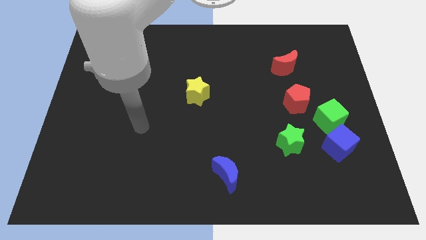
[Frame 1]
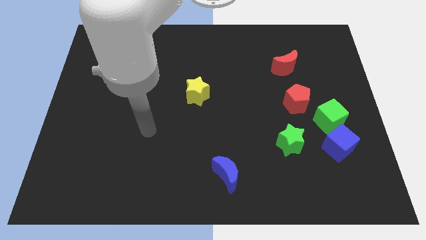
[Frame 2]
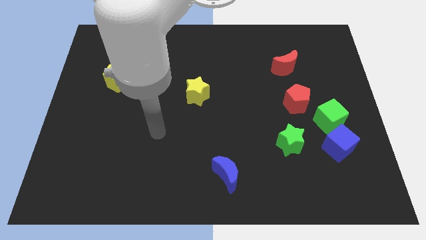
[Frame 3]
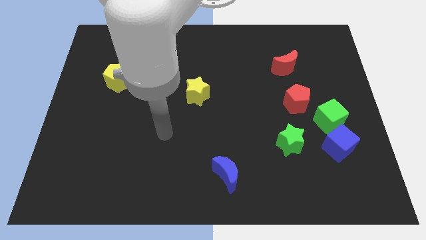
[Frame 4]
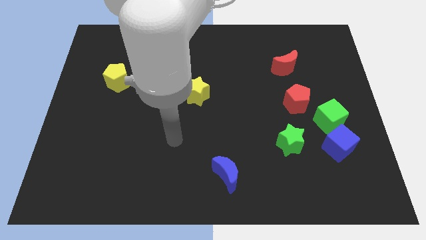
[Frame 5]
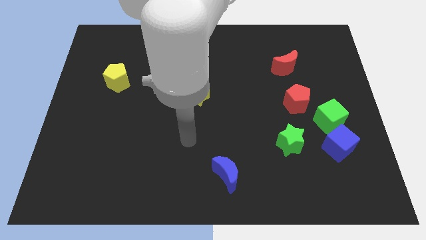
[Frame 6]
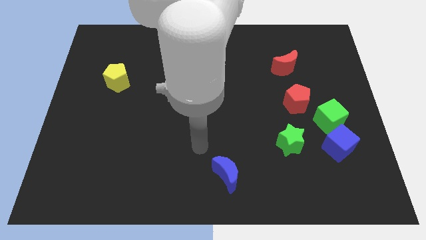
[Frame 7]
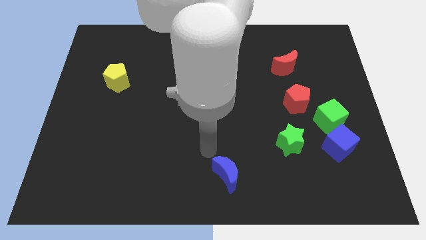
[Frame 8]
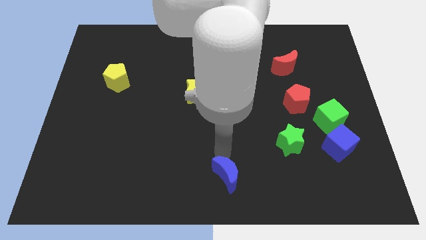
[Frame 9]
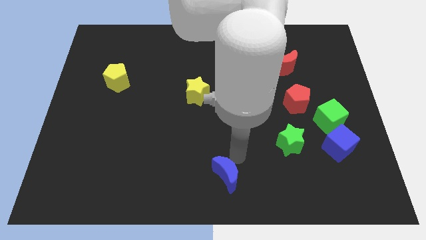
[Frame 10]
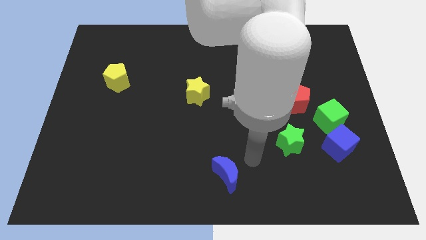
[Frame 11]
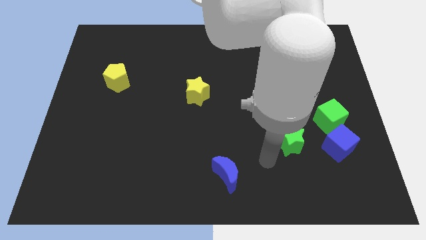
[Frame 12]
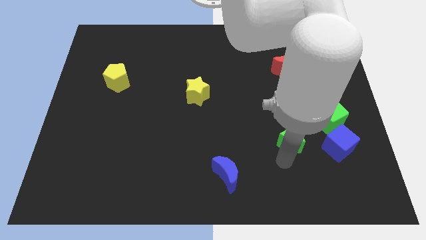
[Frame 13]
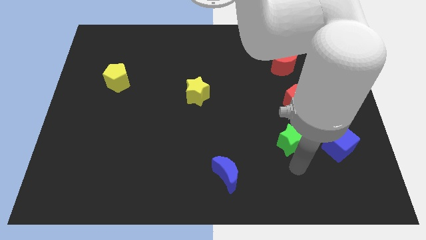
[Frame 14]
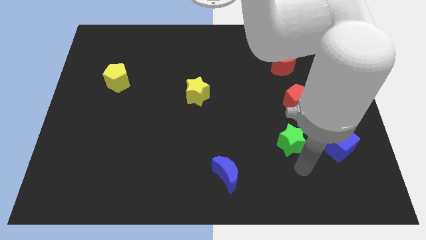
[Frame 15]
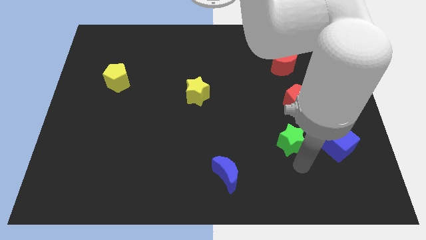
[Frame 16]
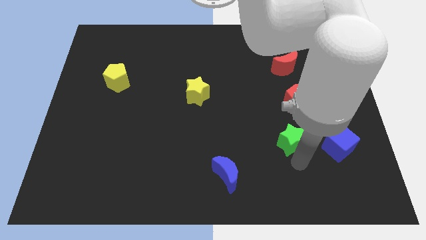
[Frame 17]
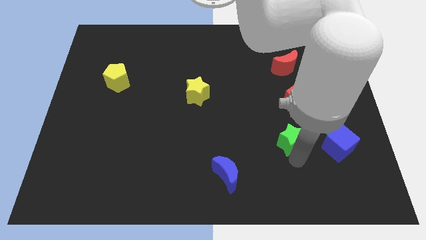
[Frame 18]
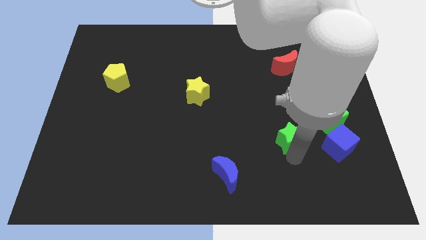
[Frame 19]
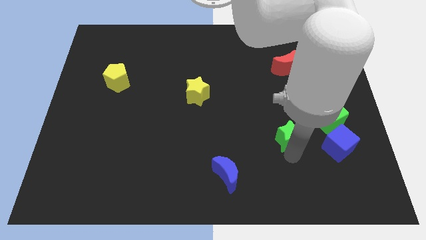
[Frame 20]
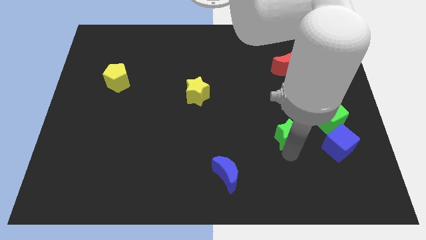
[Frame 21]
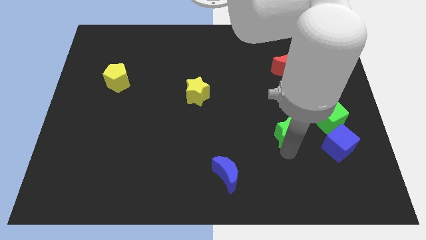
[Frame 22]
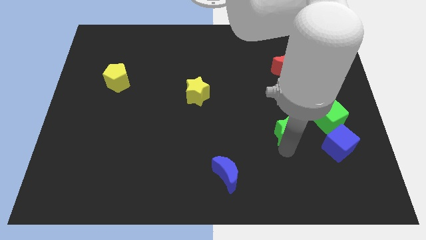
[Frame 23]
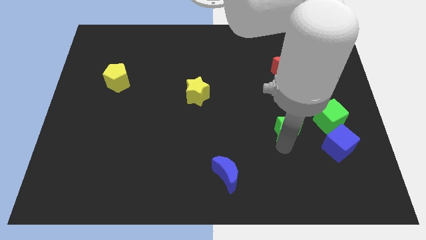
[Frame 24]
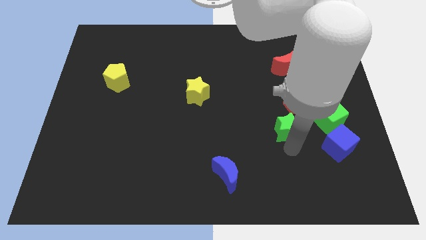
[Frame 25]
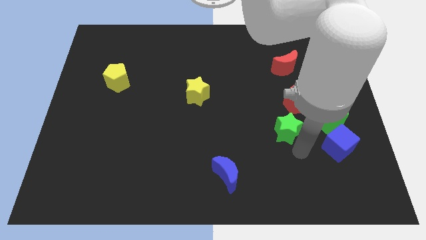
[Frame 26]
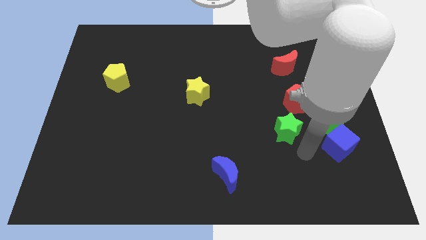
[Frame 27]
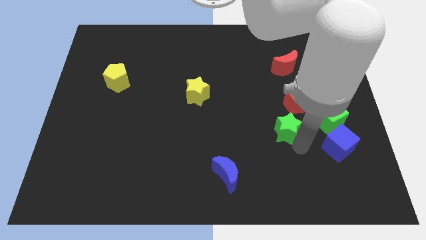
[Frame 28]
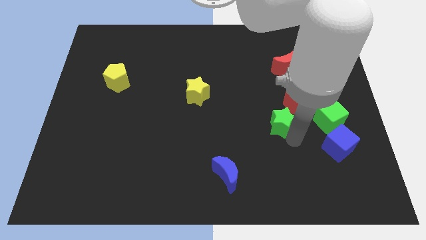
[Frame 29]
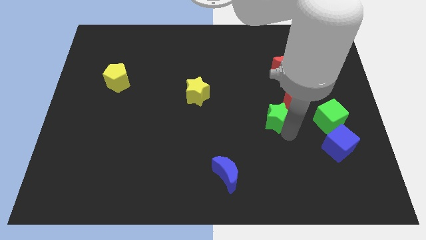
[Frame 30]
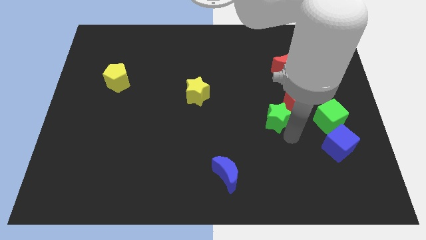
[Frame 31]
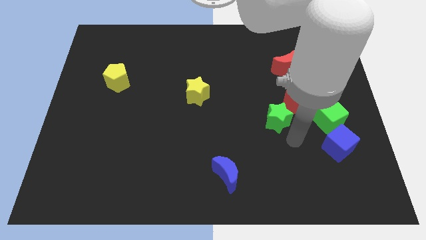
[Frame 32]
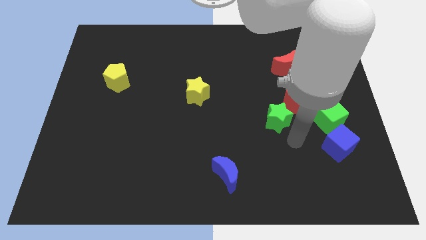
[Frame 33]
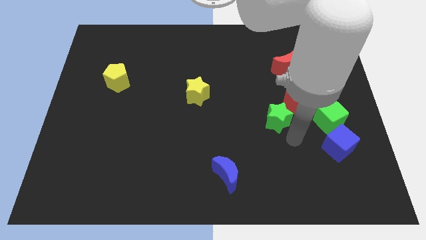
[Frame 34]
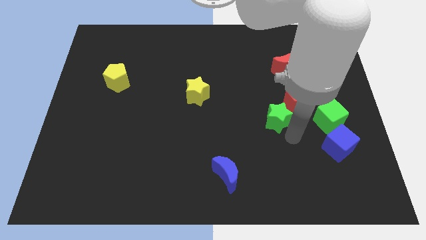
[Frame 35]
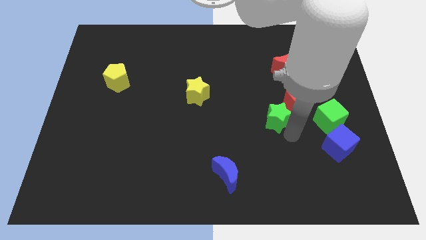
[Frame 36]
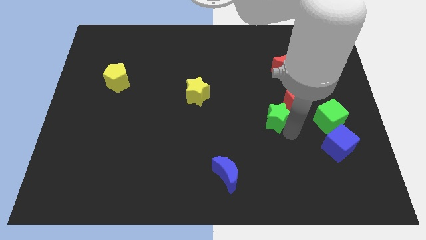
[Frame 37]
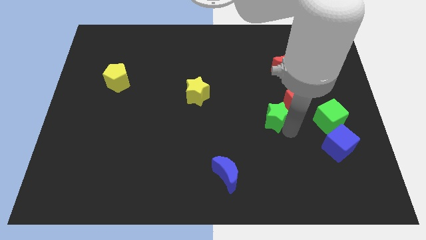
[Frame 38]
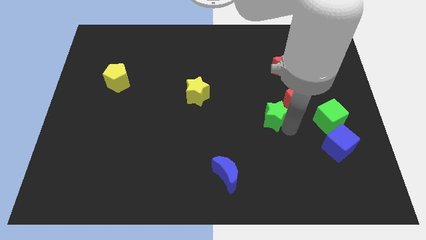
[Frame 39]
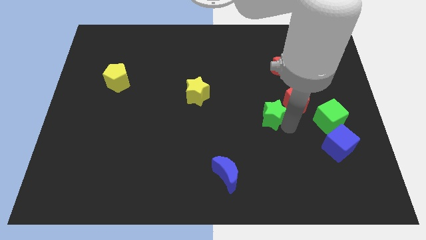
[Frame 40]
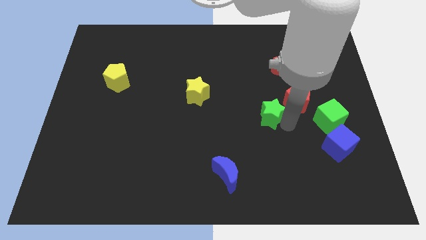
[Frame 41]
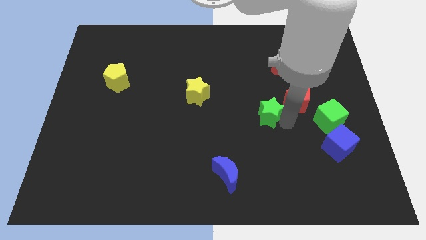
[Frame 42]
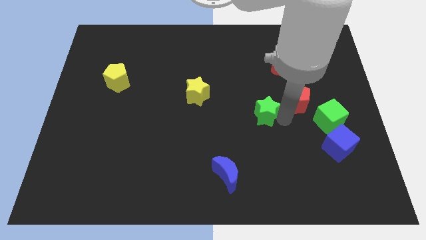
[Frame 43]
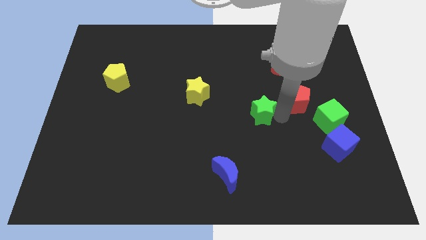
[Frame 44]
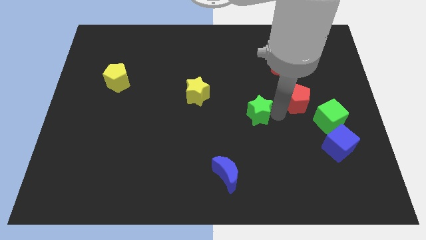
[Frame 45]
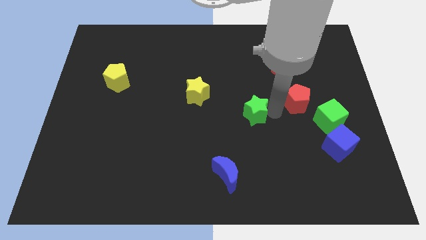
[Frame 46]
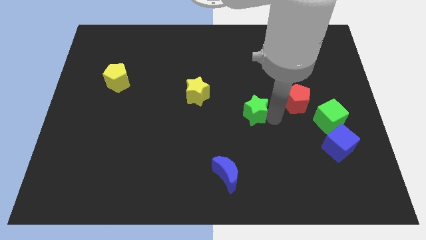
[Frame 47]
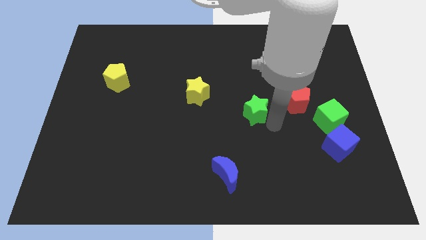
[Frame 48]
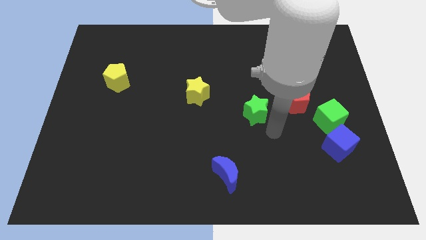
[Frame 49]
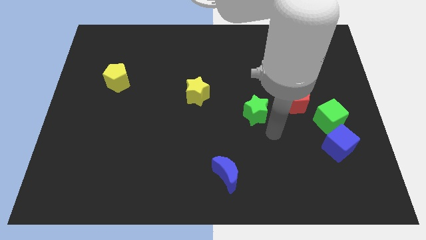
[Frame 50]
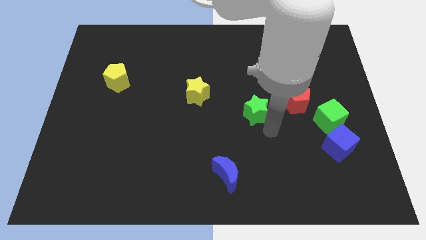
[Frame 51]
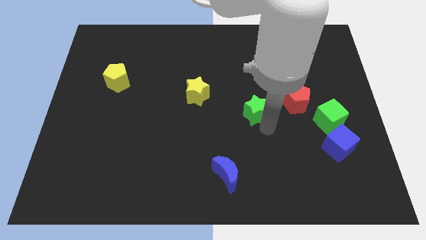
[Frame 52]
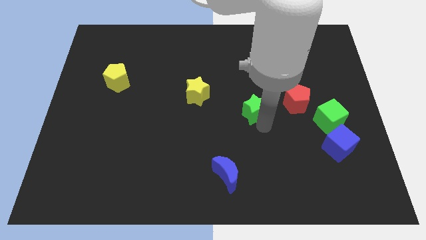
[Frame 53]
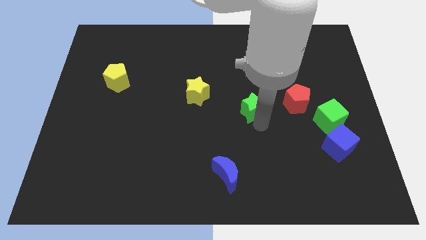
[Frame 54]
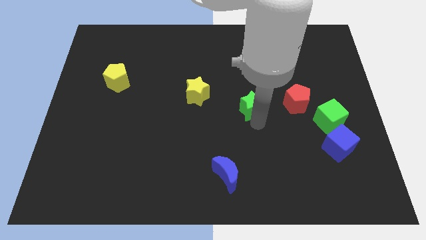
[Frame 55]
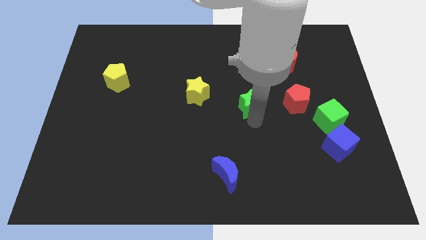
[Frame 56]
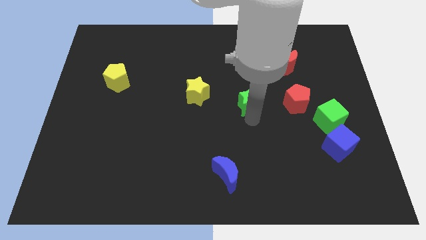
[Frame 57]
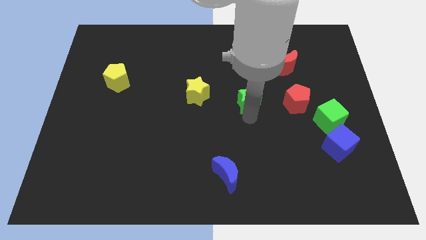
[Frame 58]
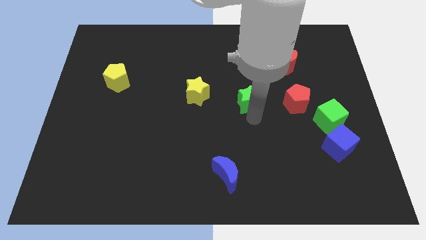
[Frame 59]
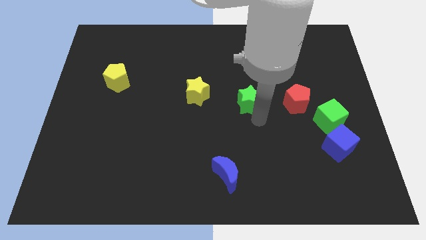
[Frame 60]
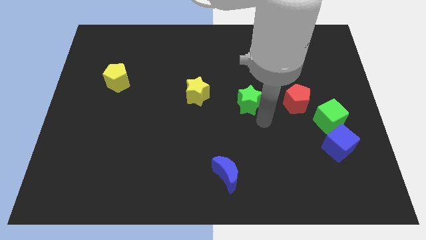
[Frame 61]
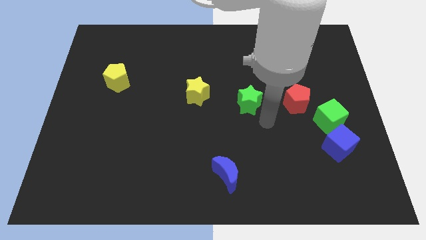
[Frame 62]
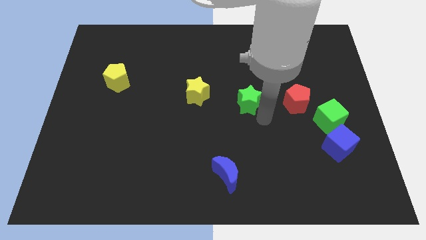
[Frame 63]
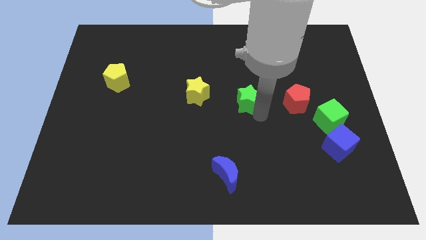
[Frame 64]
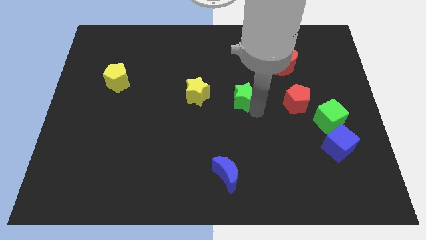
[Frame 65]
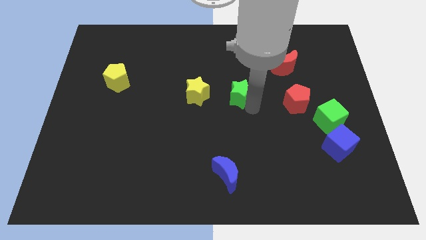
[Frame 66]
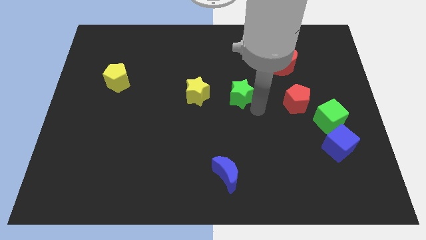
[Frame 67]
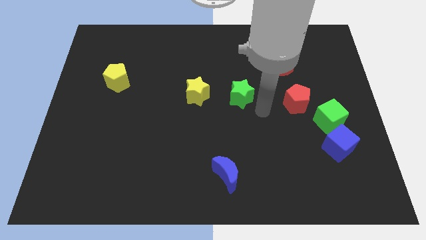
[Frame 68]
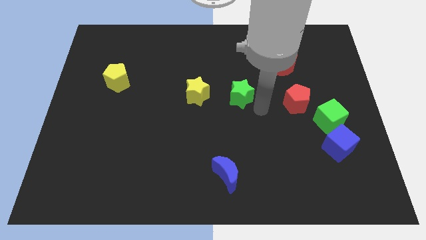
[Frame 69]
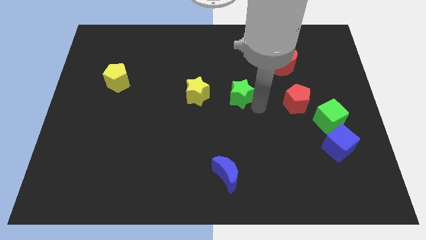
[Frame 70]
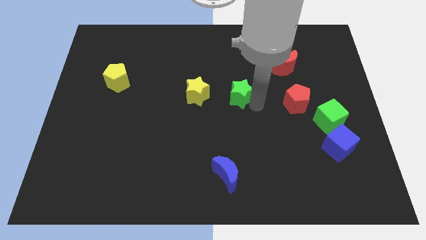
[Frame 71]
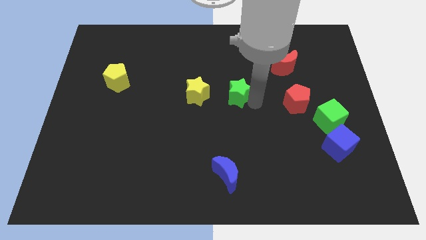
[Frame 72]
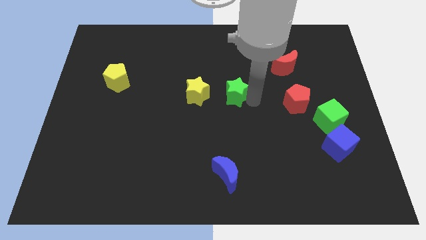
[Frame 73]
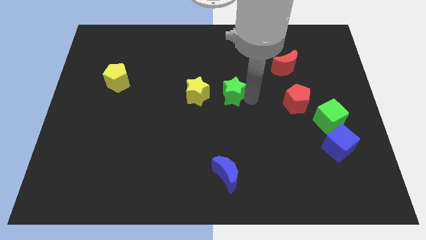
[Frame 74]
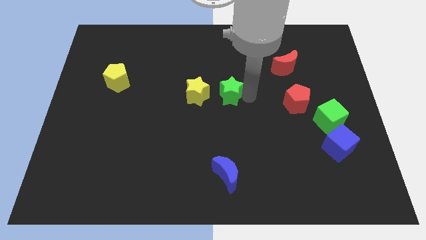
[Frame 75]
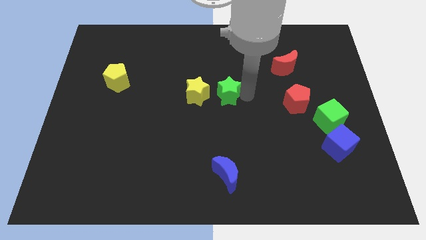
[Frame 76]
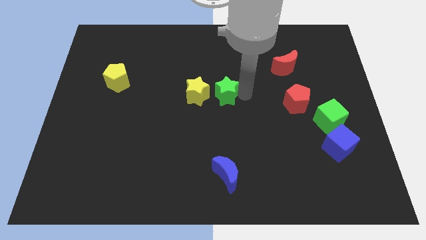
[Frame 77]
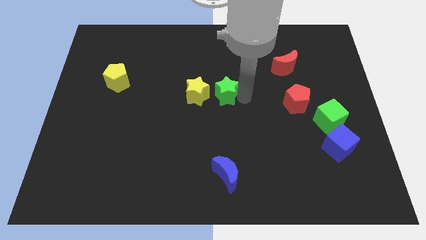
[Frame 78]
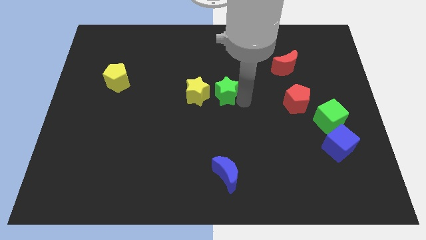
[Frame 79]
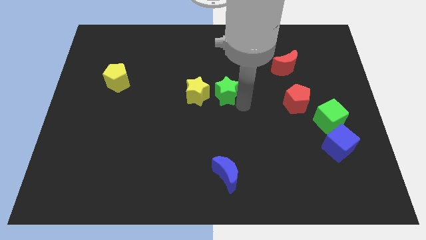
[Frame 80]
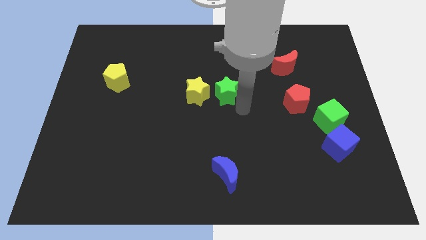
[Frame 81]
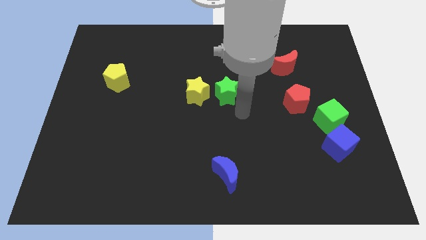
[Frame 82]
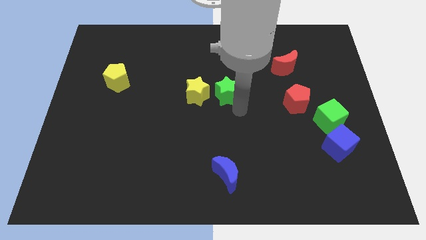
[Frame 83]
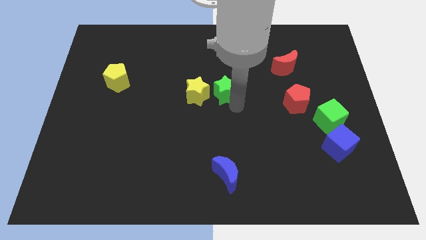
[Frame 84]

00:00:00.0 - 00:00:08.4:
move the green star upwards and left diagonally
